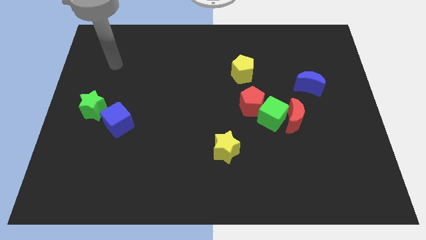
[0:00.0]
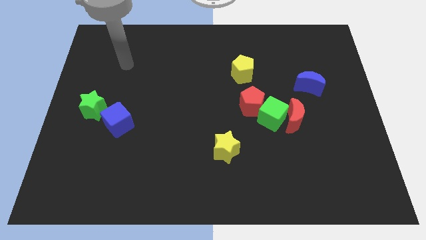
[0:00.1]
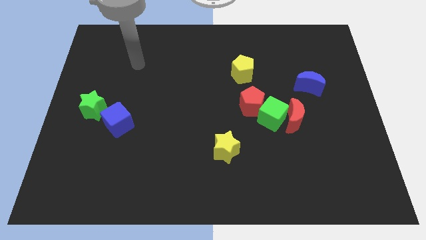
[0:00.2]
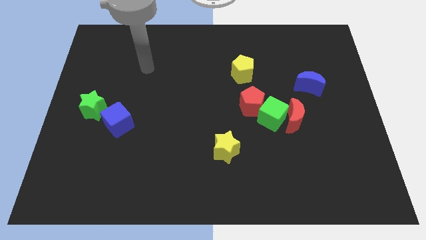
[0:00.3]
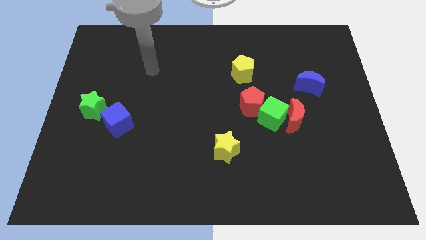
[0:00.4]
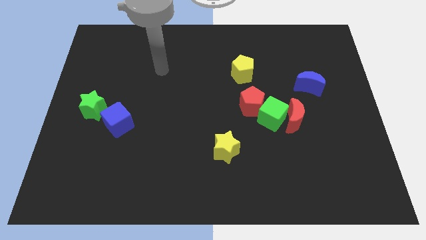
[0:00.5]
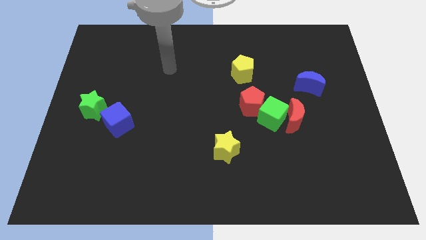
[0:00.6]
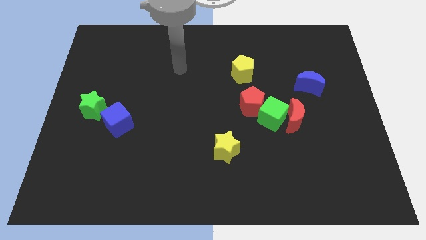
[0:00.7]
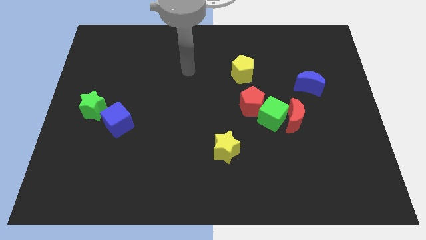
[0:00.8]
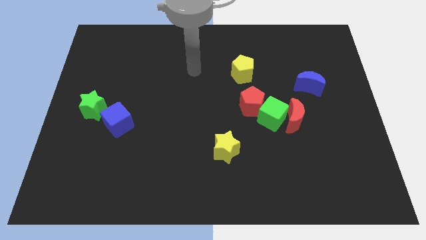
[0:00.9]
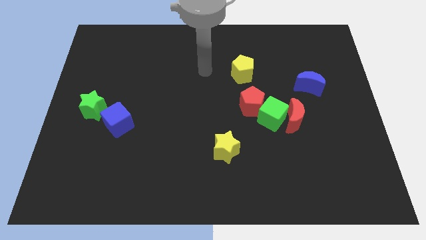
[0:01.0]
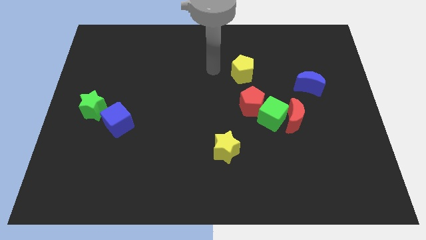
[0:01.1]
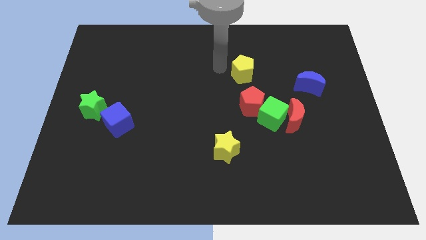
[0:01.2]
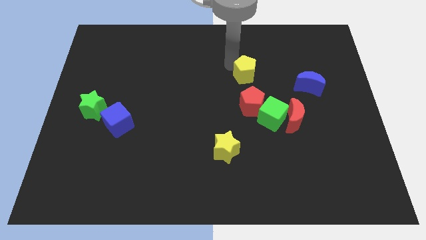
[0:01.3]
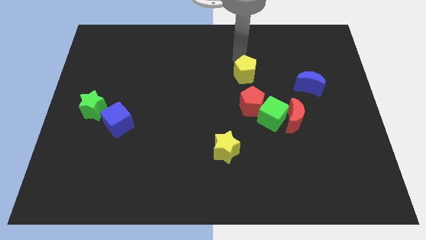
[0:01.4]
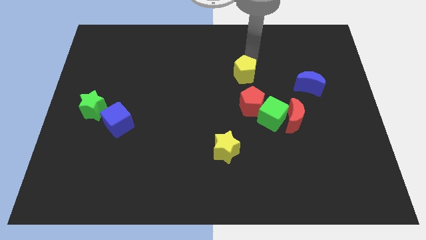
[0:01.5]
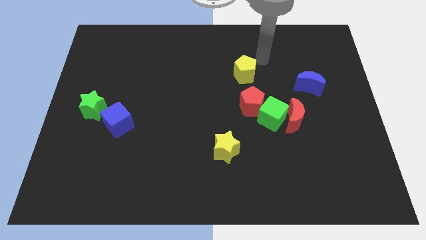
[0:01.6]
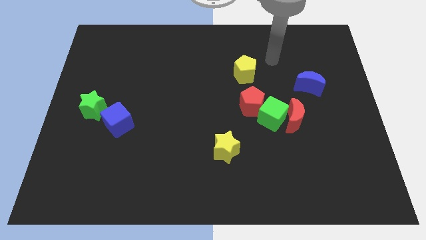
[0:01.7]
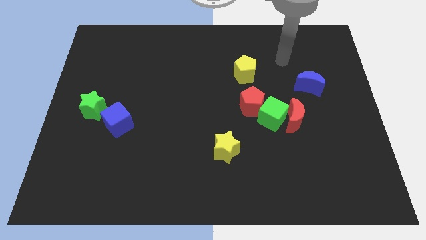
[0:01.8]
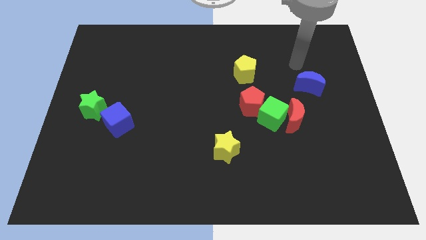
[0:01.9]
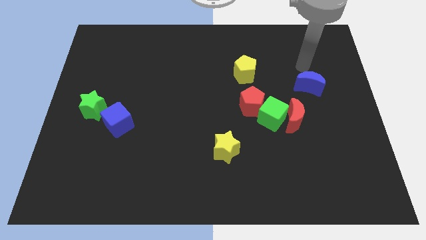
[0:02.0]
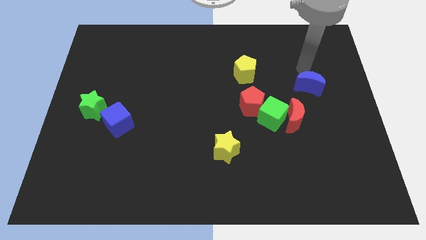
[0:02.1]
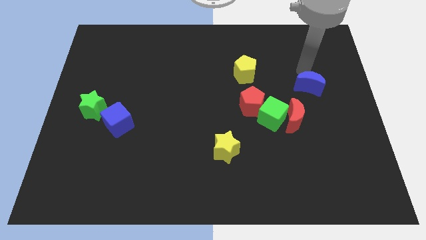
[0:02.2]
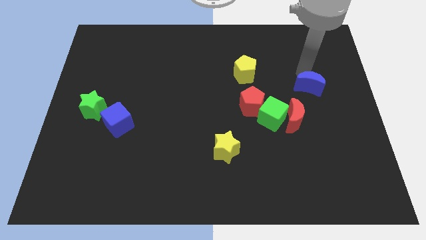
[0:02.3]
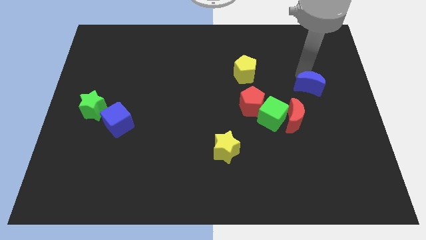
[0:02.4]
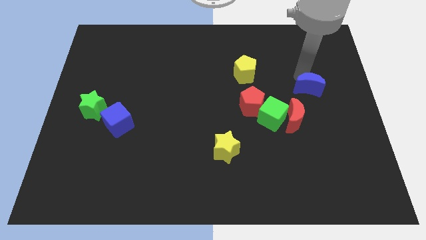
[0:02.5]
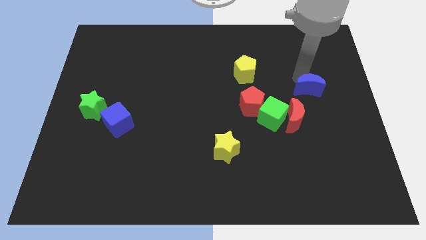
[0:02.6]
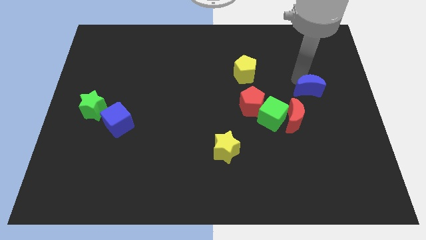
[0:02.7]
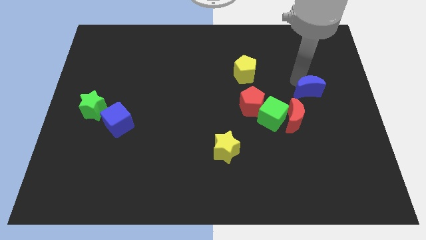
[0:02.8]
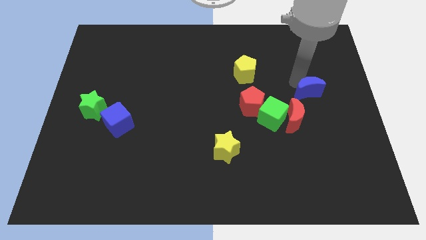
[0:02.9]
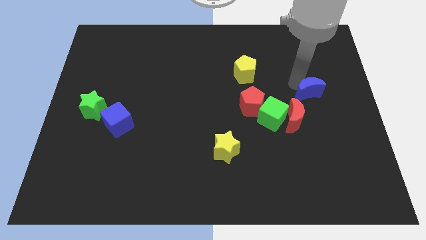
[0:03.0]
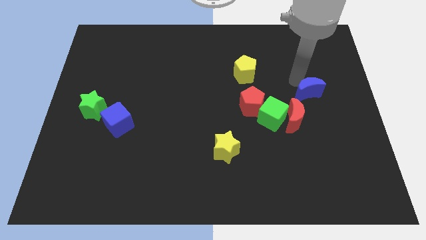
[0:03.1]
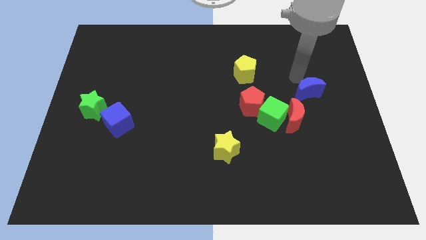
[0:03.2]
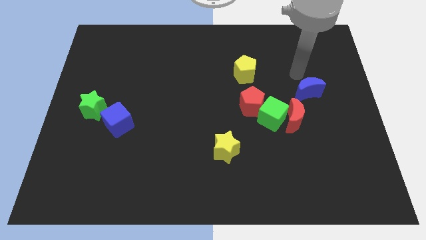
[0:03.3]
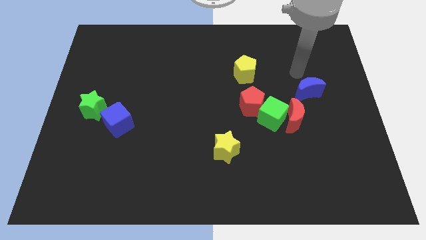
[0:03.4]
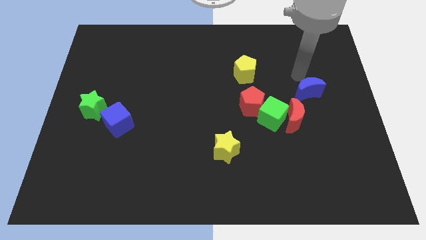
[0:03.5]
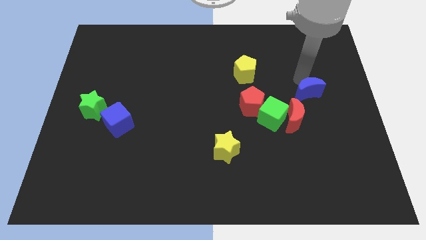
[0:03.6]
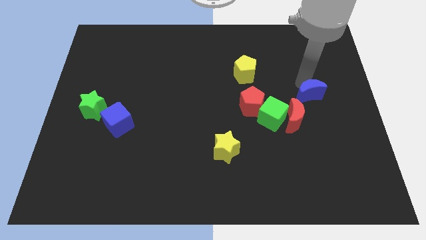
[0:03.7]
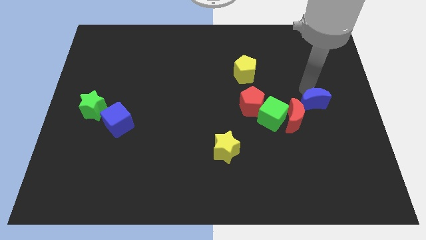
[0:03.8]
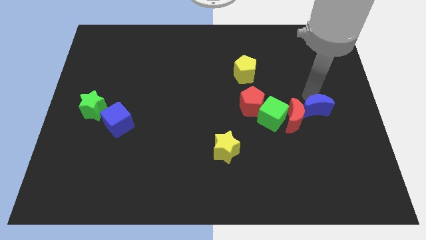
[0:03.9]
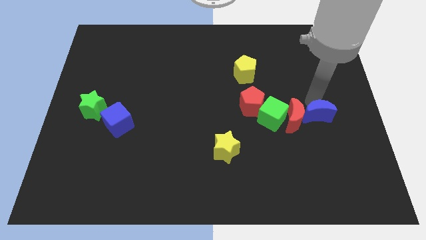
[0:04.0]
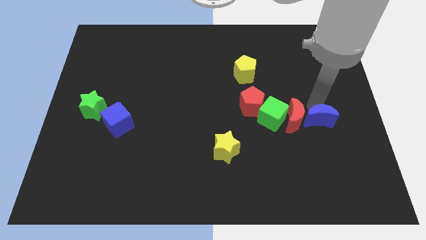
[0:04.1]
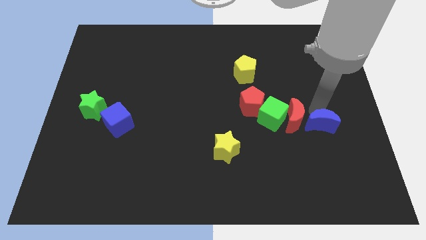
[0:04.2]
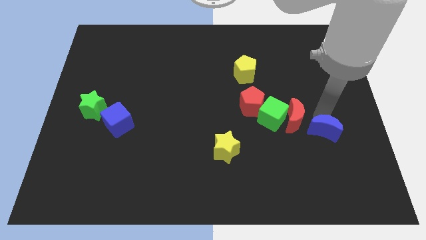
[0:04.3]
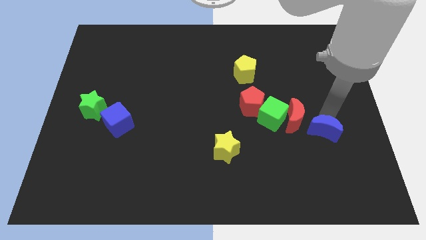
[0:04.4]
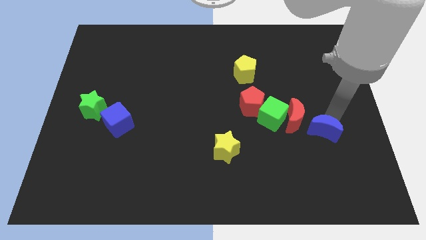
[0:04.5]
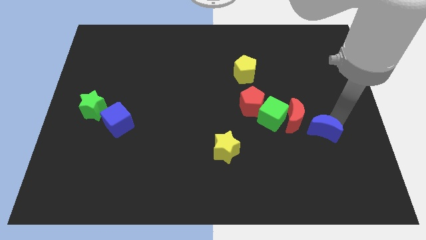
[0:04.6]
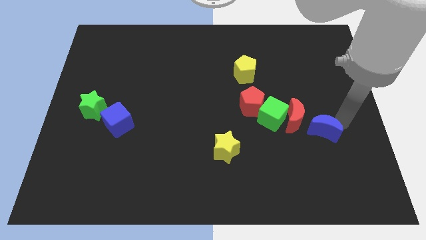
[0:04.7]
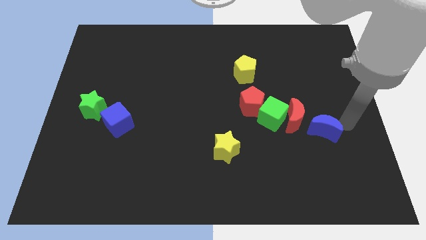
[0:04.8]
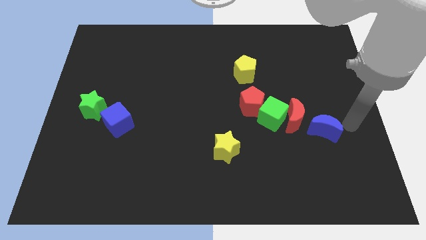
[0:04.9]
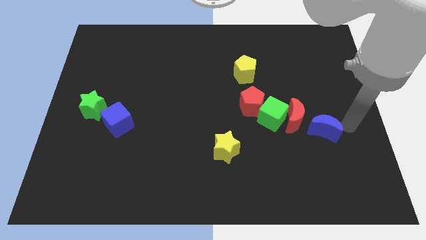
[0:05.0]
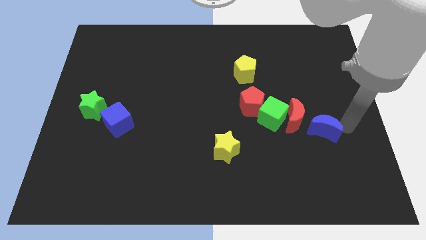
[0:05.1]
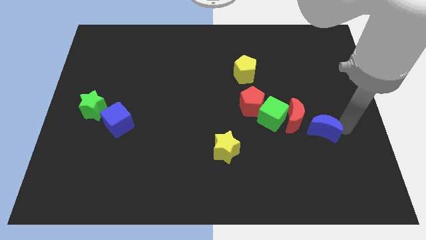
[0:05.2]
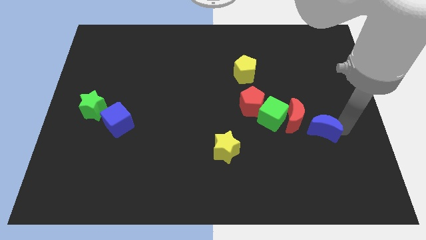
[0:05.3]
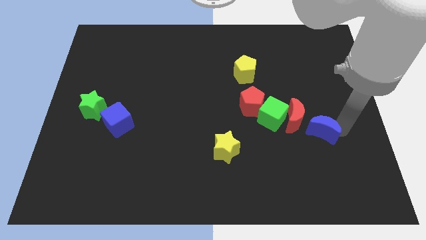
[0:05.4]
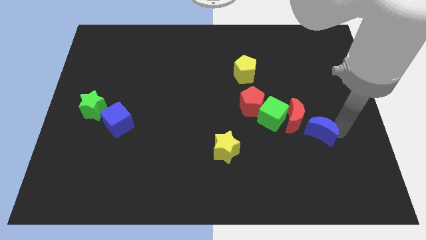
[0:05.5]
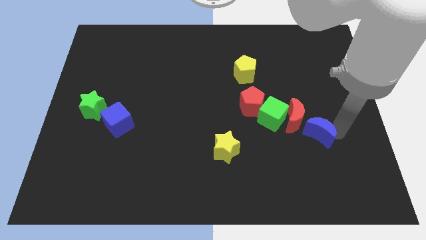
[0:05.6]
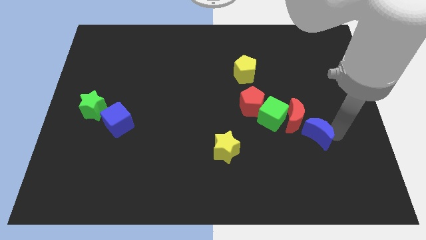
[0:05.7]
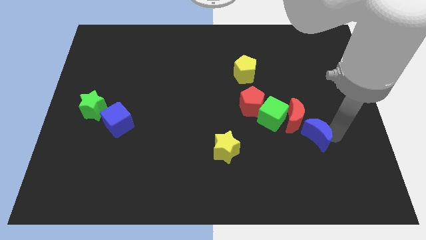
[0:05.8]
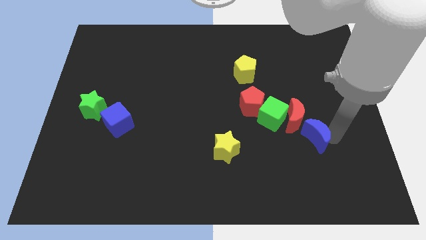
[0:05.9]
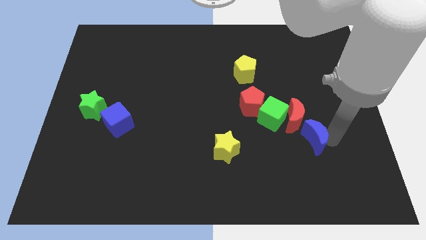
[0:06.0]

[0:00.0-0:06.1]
move the blue moon diagonally down and left a little

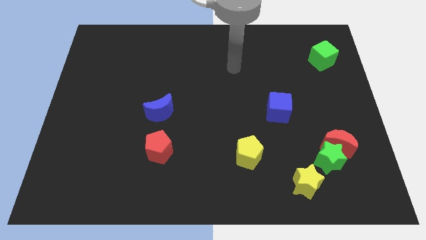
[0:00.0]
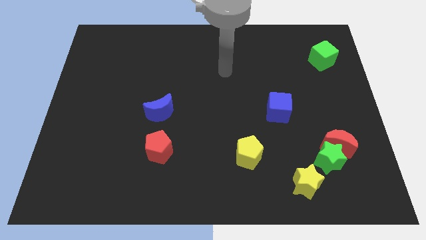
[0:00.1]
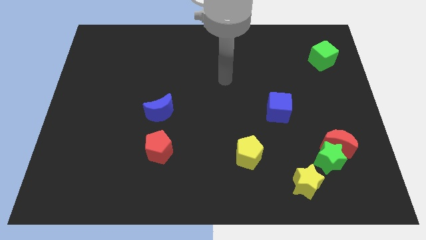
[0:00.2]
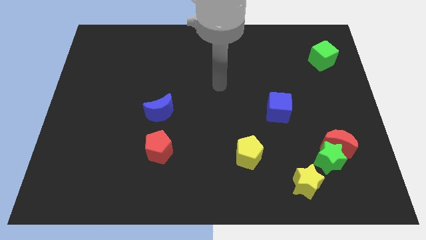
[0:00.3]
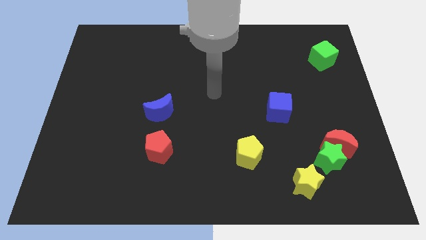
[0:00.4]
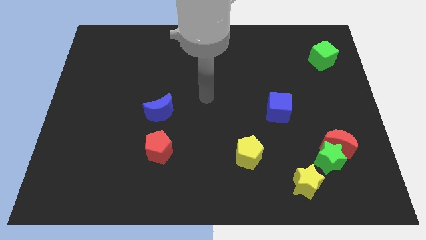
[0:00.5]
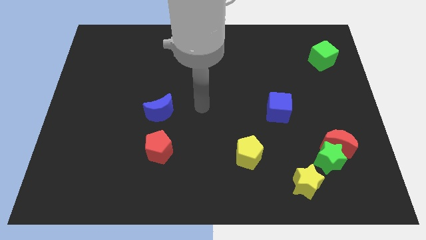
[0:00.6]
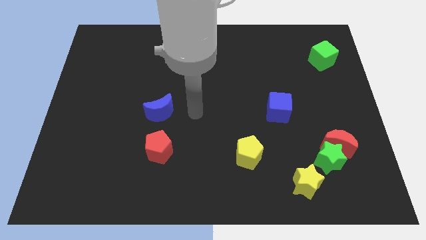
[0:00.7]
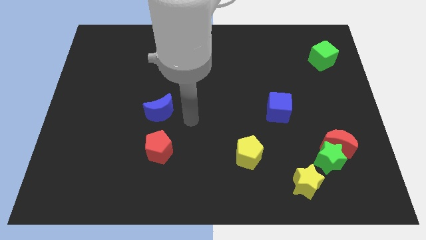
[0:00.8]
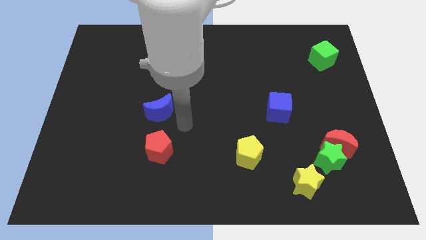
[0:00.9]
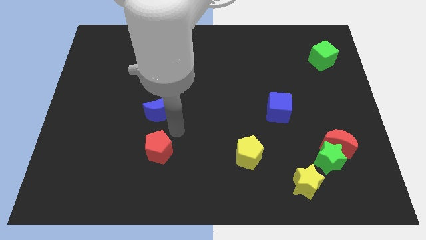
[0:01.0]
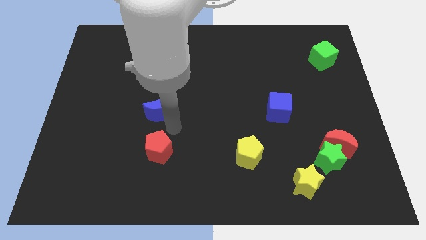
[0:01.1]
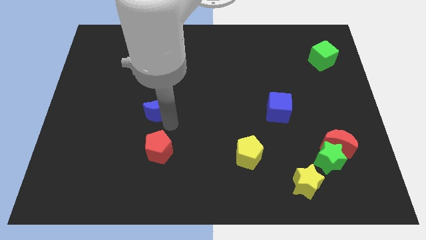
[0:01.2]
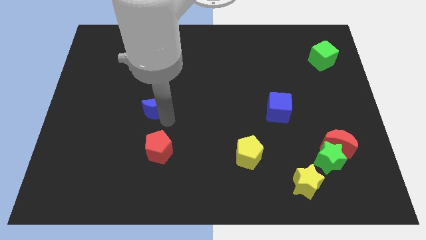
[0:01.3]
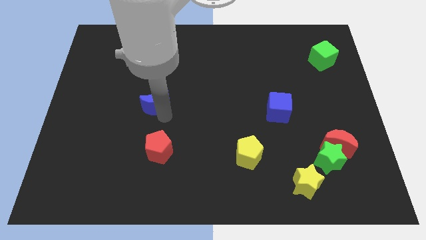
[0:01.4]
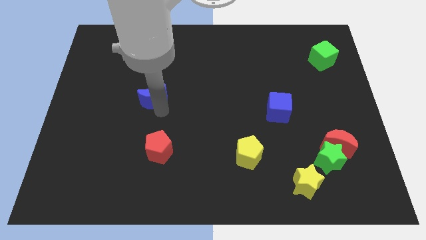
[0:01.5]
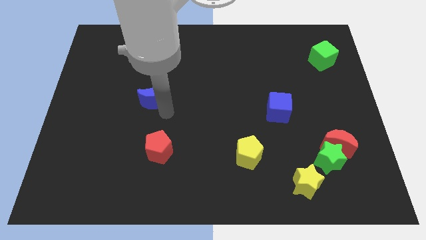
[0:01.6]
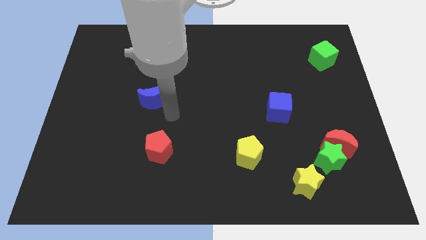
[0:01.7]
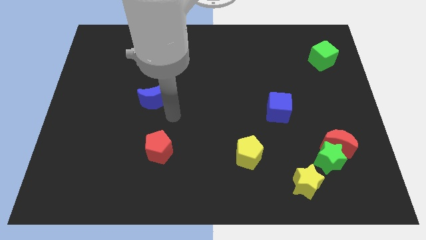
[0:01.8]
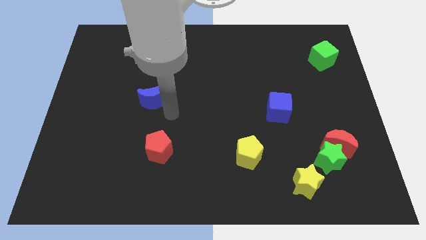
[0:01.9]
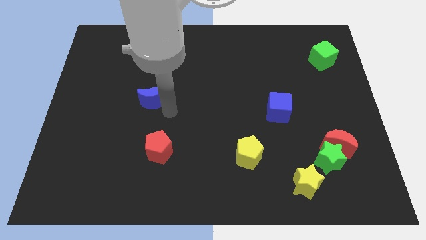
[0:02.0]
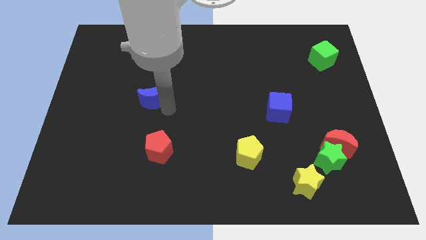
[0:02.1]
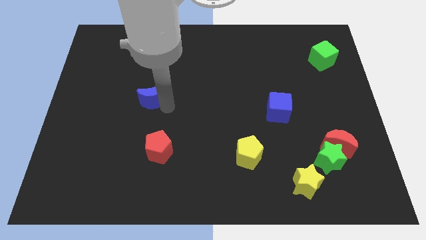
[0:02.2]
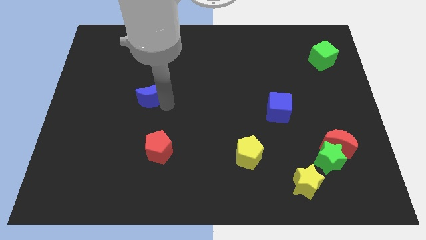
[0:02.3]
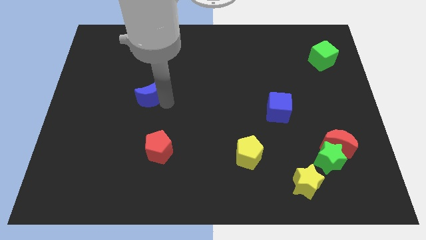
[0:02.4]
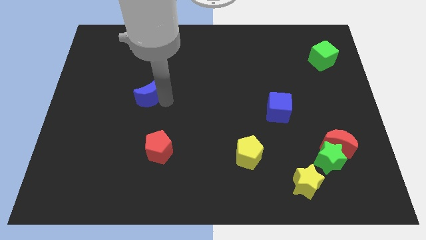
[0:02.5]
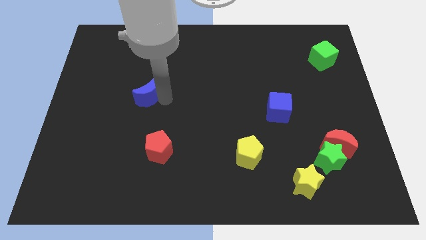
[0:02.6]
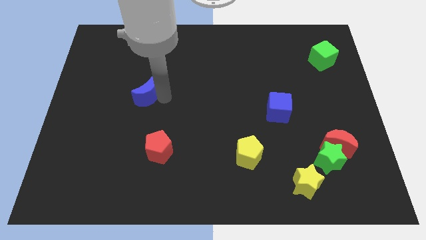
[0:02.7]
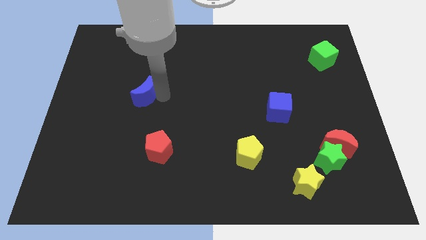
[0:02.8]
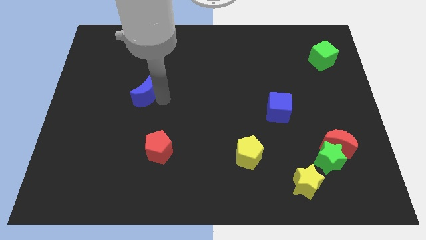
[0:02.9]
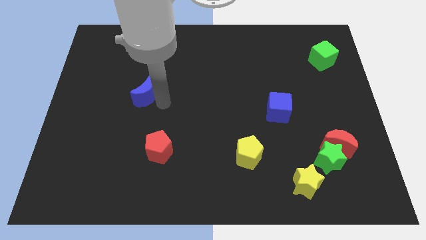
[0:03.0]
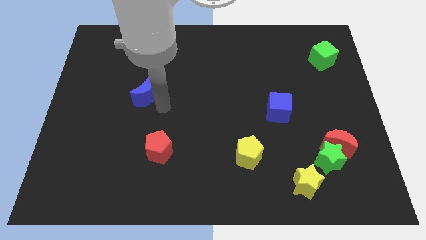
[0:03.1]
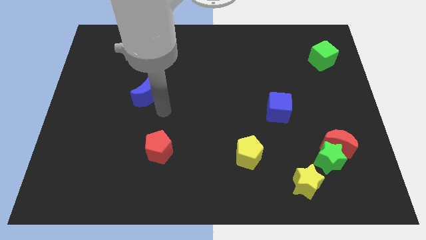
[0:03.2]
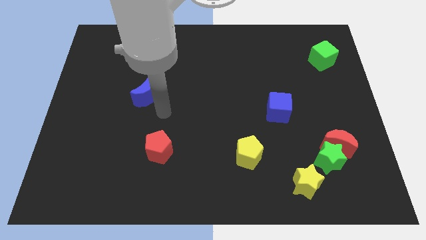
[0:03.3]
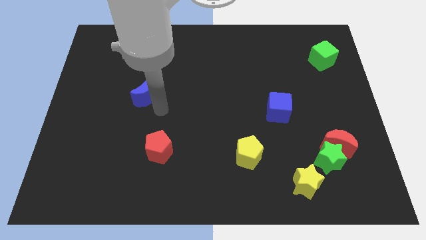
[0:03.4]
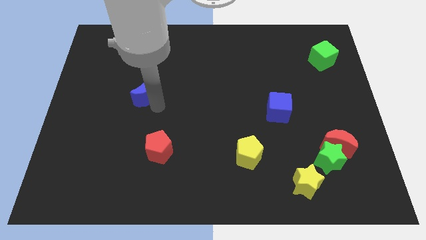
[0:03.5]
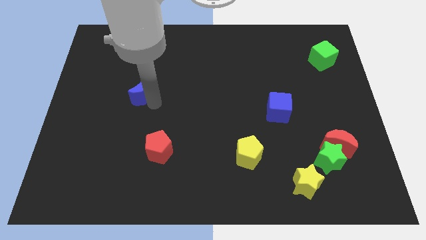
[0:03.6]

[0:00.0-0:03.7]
move the blue moon upwards and to the left diagonally somewhat
